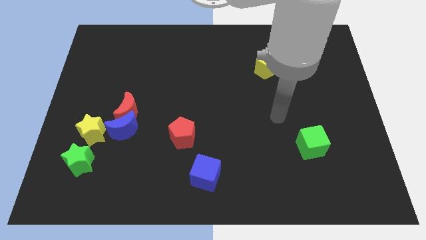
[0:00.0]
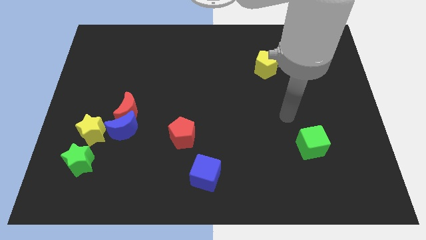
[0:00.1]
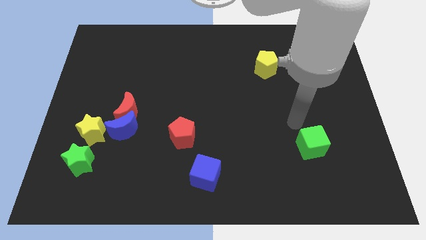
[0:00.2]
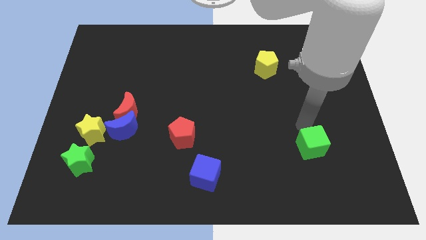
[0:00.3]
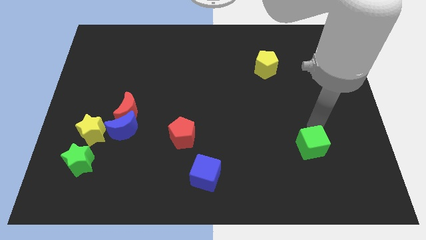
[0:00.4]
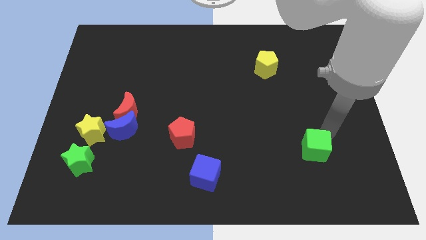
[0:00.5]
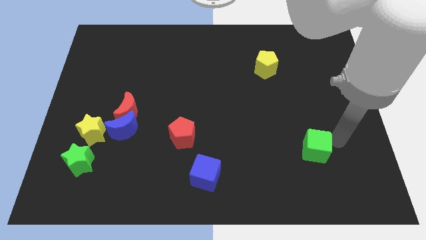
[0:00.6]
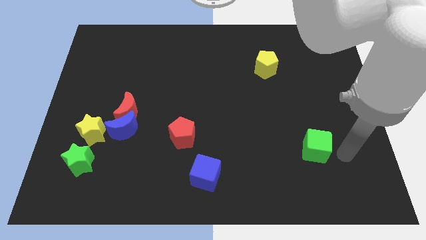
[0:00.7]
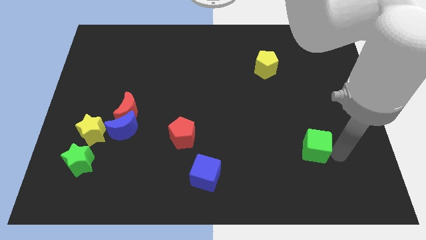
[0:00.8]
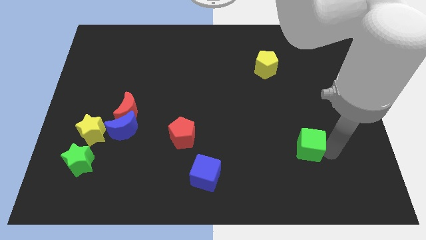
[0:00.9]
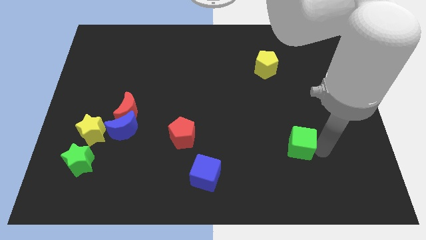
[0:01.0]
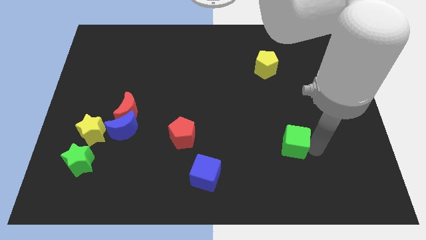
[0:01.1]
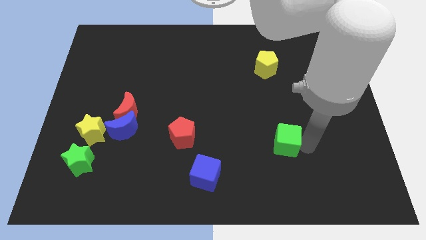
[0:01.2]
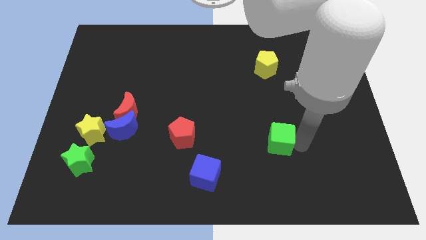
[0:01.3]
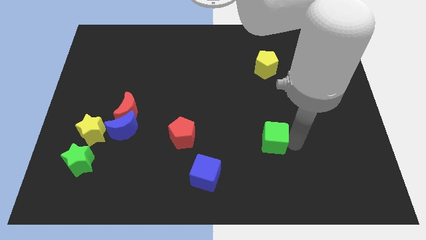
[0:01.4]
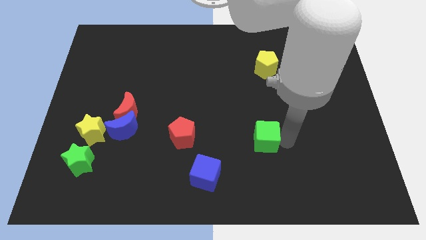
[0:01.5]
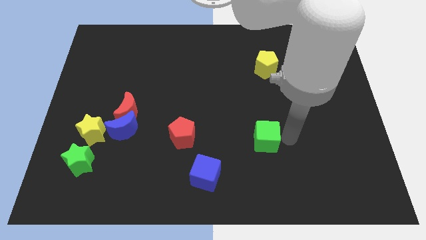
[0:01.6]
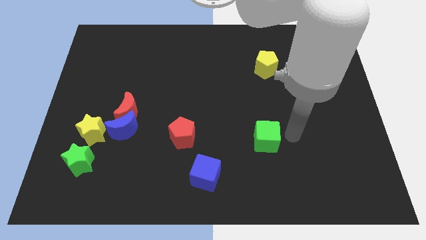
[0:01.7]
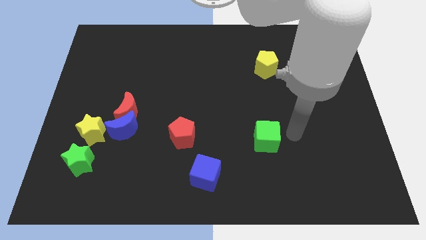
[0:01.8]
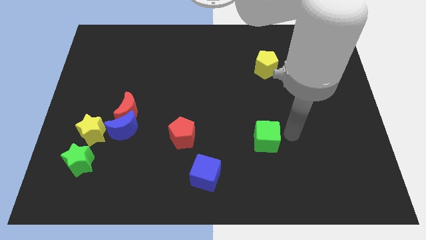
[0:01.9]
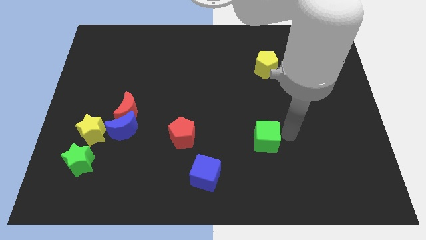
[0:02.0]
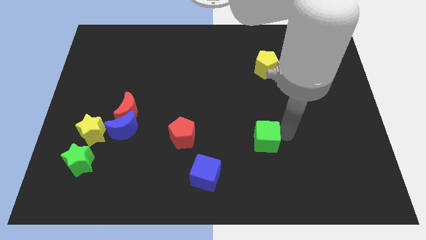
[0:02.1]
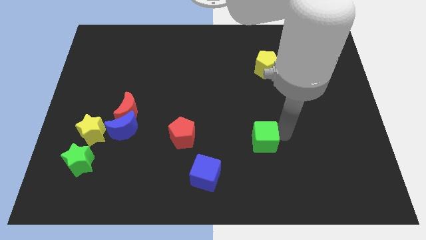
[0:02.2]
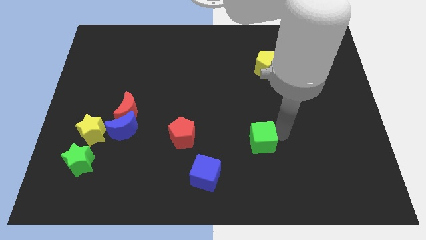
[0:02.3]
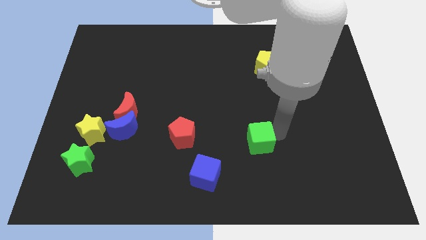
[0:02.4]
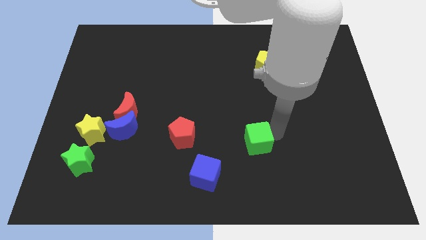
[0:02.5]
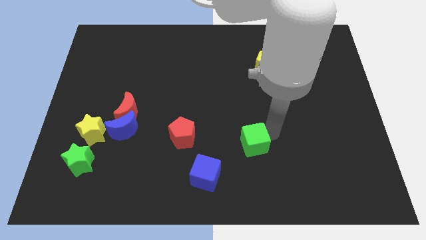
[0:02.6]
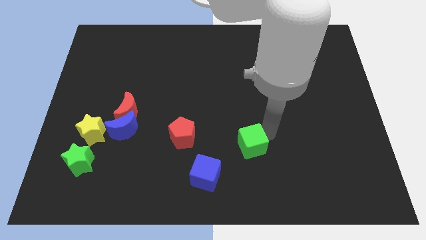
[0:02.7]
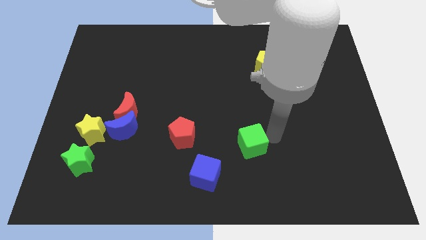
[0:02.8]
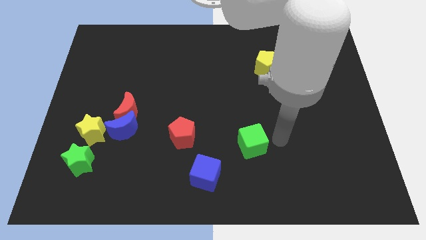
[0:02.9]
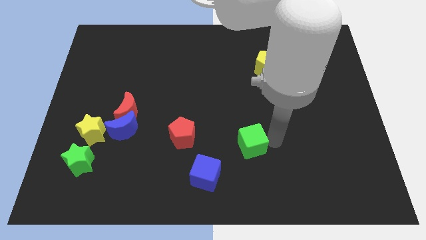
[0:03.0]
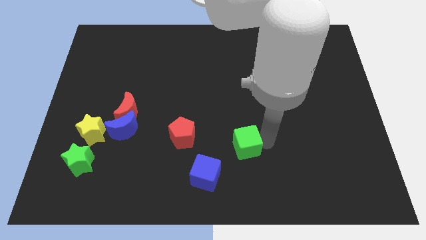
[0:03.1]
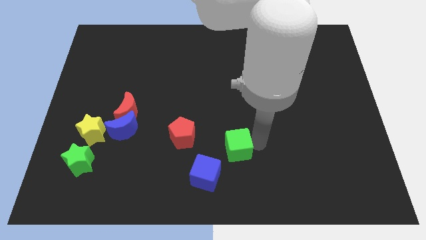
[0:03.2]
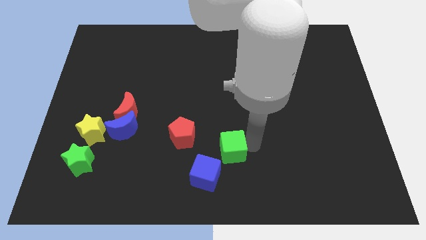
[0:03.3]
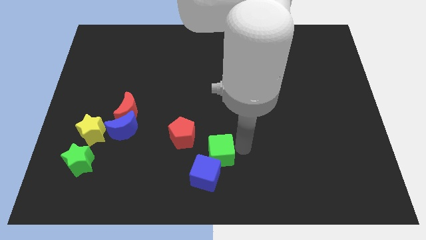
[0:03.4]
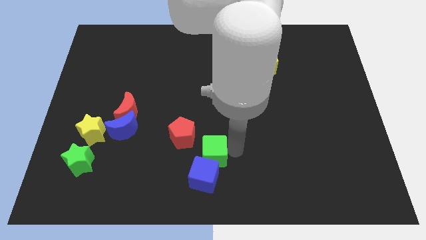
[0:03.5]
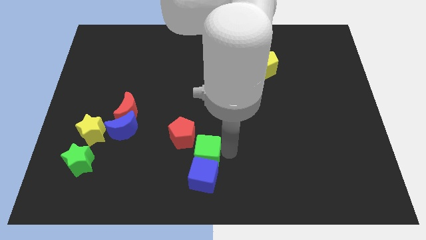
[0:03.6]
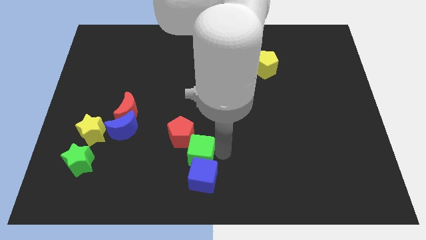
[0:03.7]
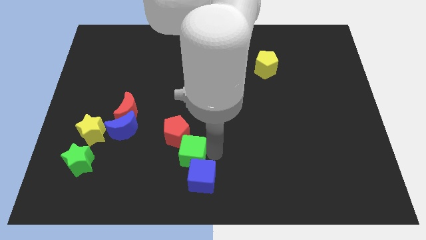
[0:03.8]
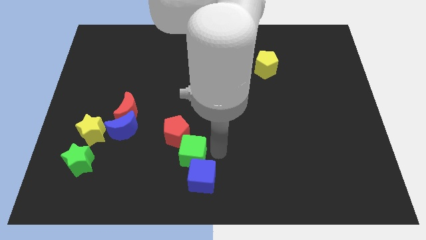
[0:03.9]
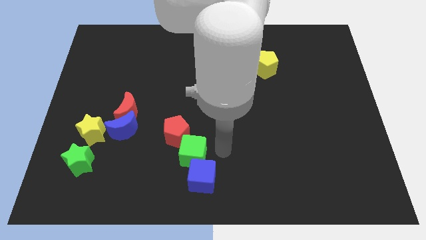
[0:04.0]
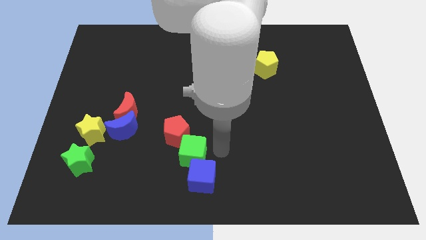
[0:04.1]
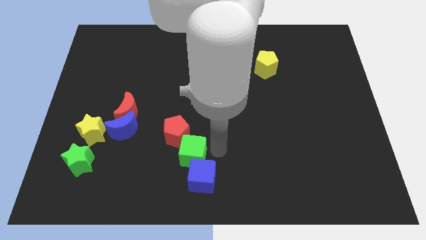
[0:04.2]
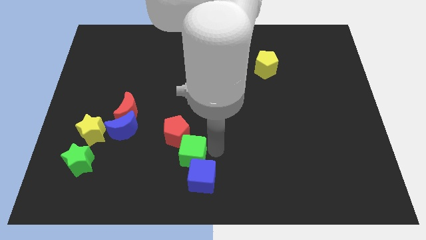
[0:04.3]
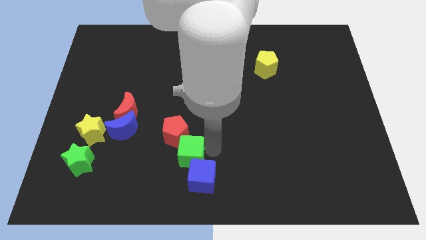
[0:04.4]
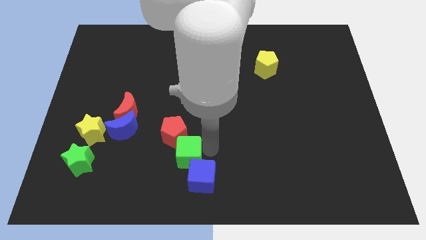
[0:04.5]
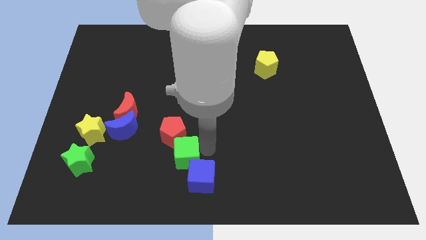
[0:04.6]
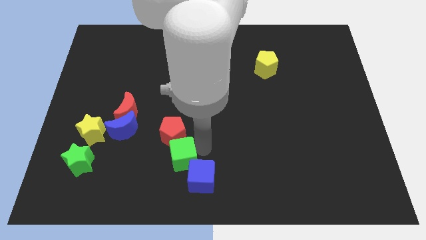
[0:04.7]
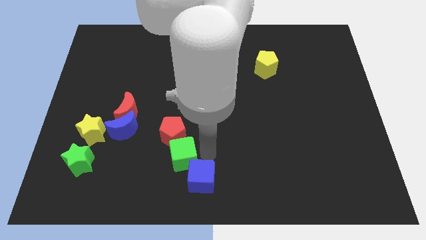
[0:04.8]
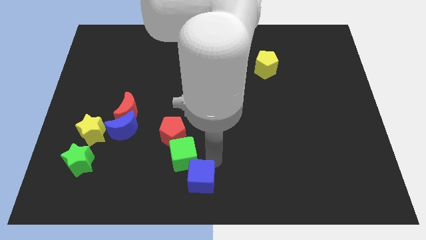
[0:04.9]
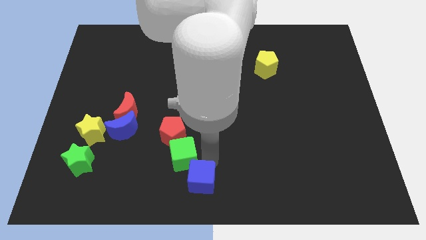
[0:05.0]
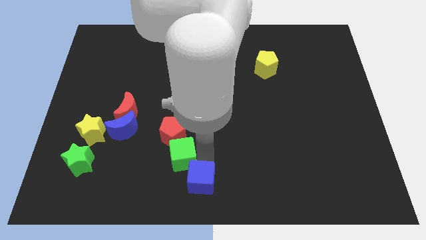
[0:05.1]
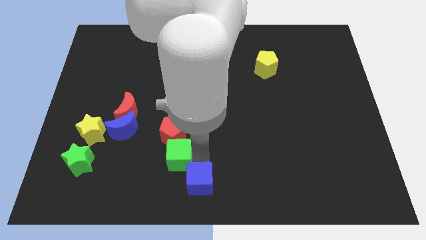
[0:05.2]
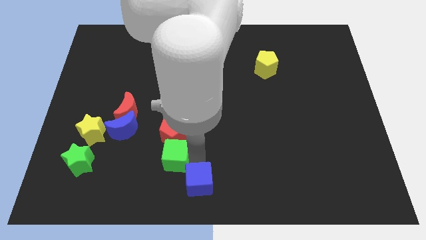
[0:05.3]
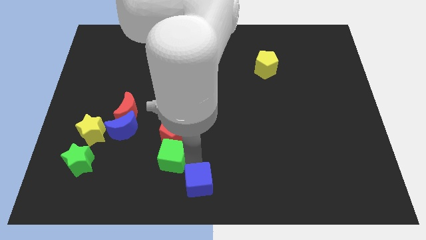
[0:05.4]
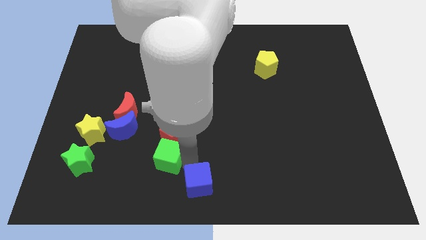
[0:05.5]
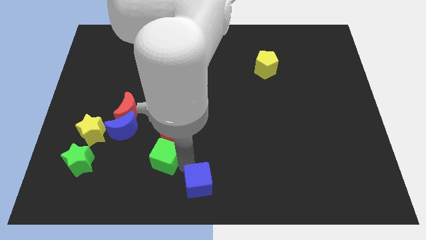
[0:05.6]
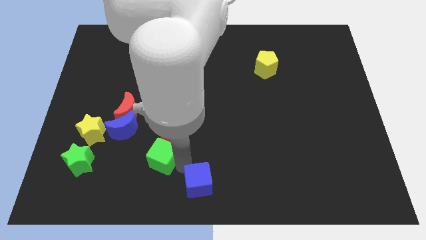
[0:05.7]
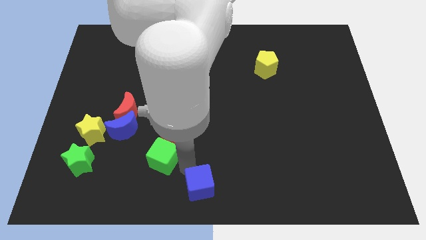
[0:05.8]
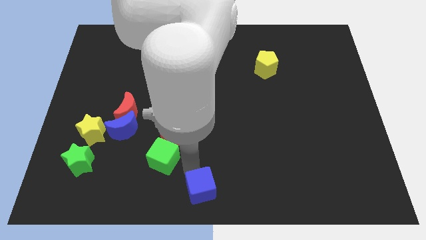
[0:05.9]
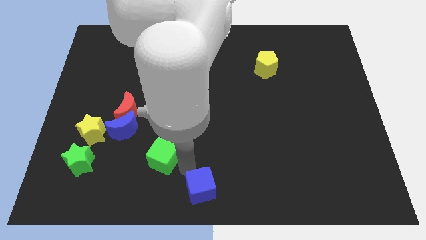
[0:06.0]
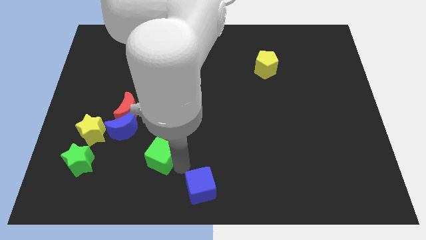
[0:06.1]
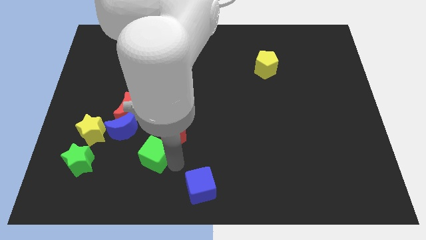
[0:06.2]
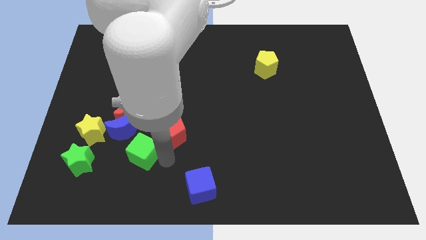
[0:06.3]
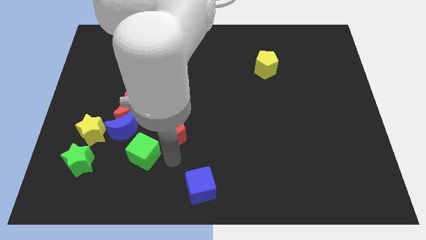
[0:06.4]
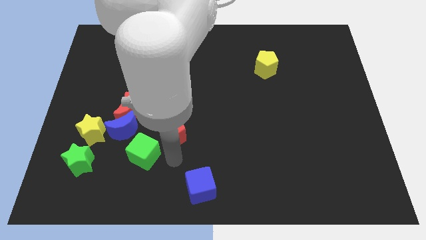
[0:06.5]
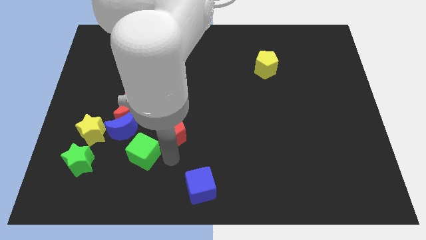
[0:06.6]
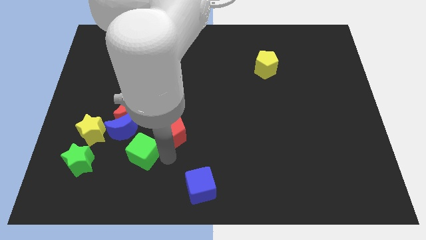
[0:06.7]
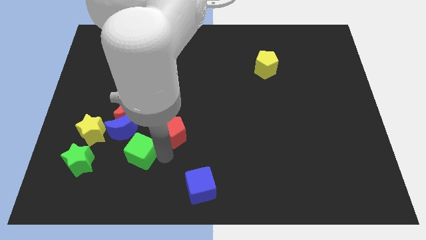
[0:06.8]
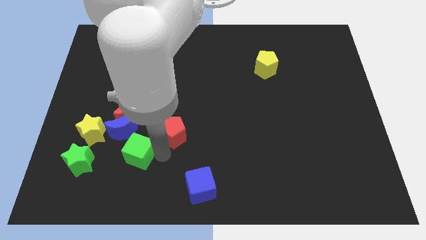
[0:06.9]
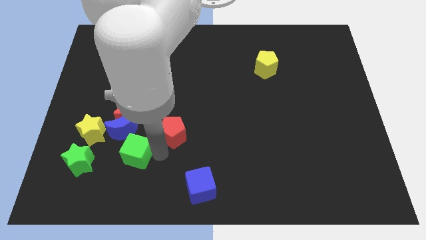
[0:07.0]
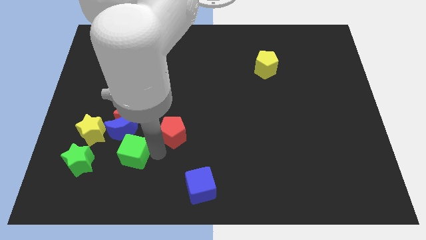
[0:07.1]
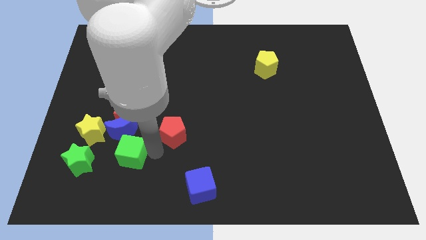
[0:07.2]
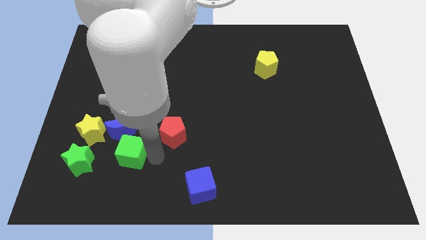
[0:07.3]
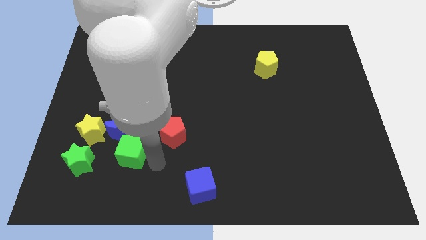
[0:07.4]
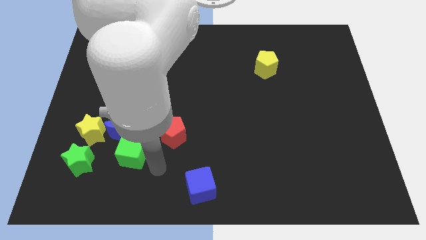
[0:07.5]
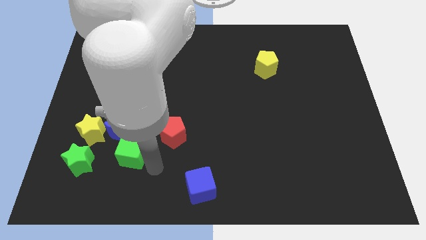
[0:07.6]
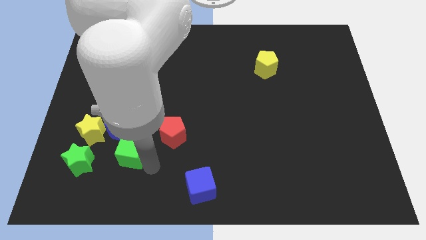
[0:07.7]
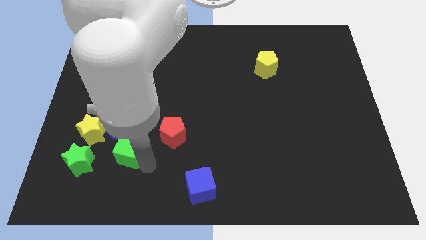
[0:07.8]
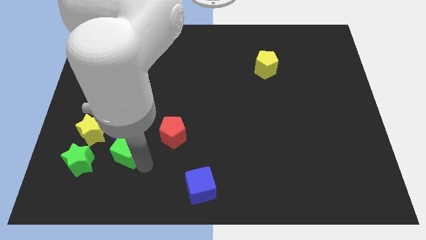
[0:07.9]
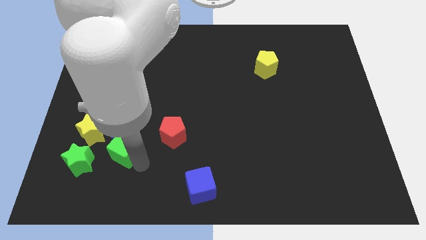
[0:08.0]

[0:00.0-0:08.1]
move the green cube diagonally up and to the right of the green star
